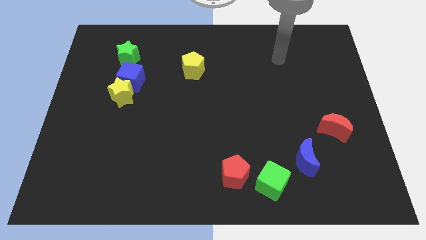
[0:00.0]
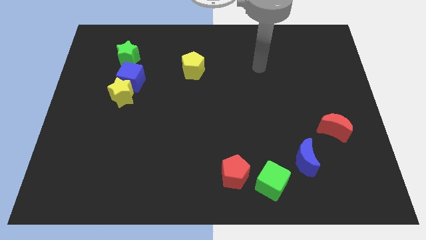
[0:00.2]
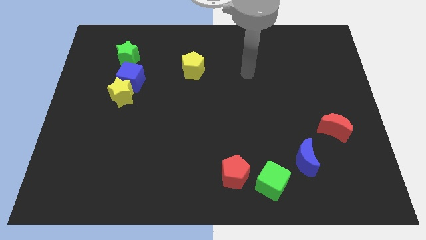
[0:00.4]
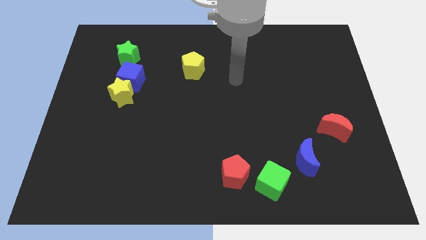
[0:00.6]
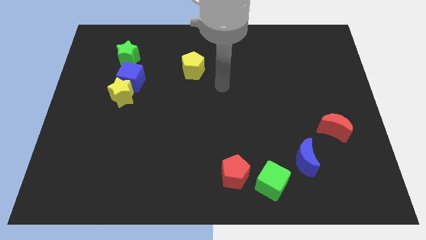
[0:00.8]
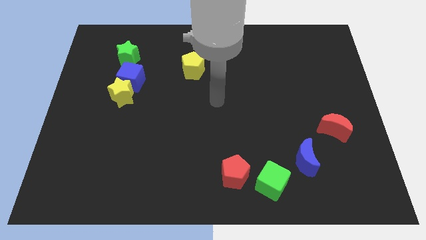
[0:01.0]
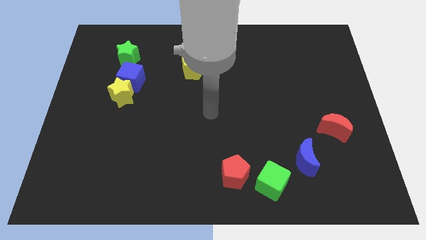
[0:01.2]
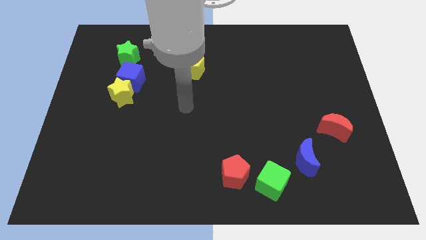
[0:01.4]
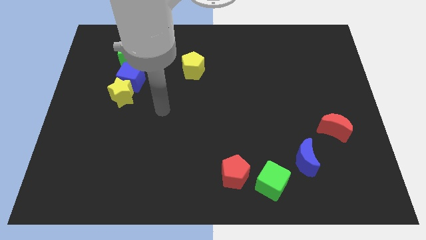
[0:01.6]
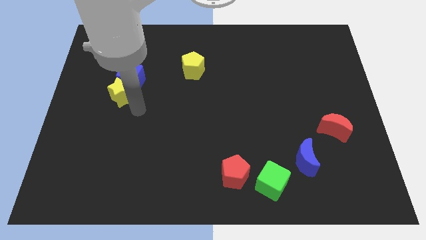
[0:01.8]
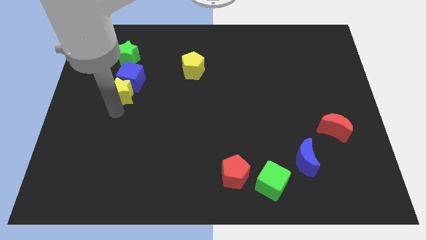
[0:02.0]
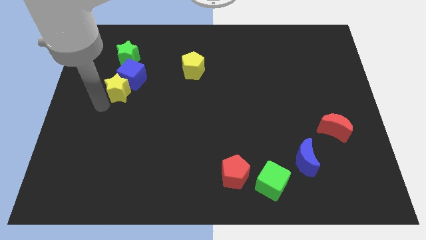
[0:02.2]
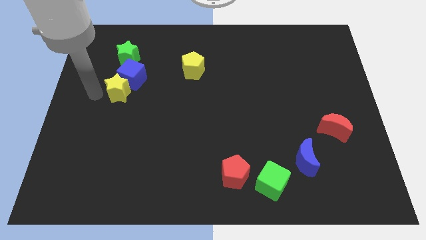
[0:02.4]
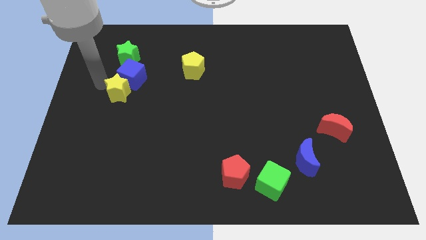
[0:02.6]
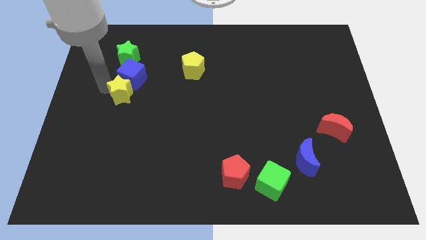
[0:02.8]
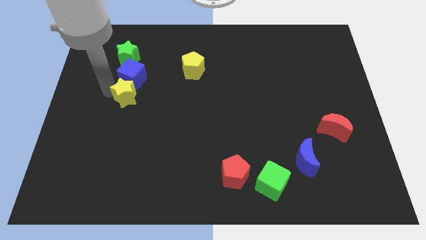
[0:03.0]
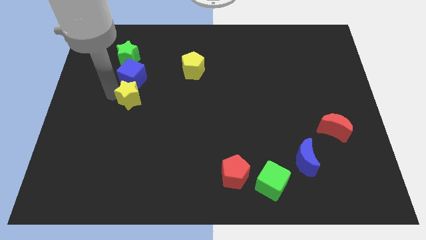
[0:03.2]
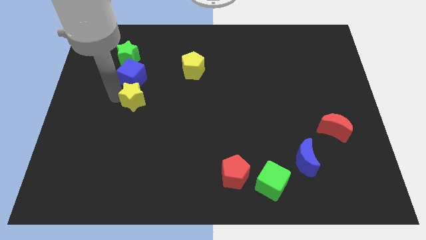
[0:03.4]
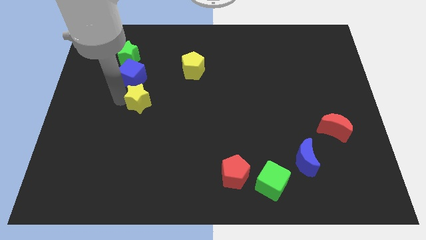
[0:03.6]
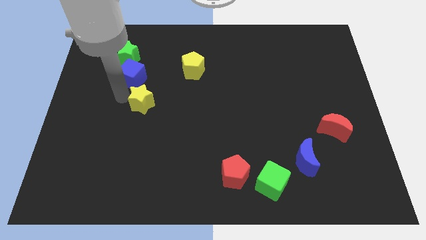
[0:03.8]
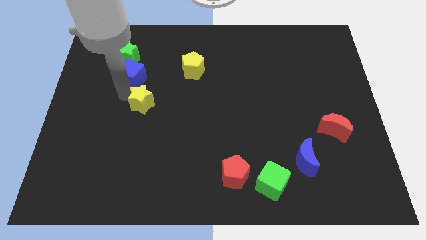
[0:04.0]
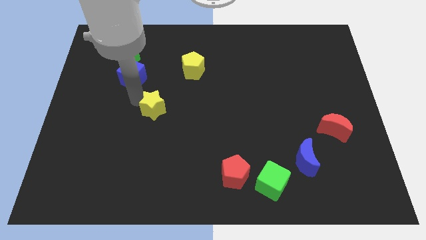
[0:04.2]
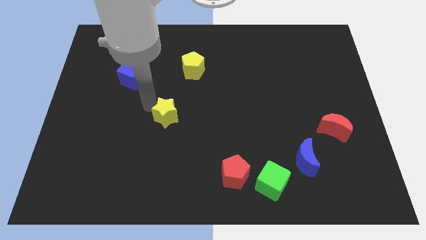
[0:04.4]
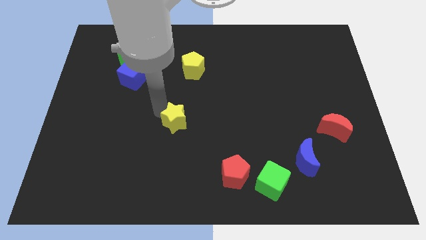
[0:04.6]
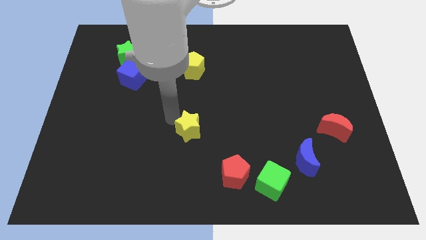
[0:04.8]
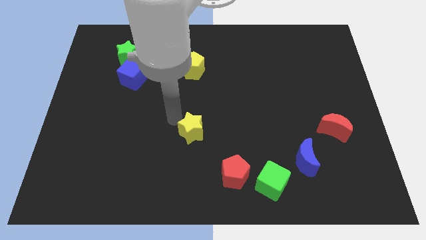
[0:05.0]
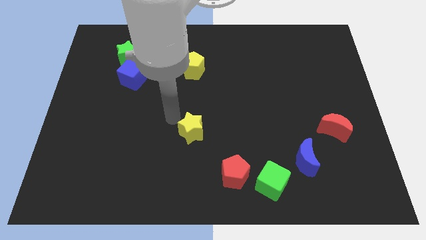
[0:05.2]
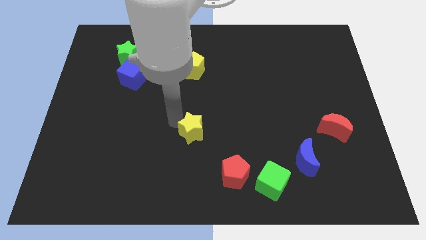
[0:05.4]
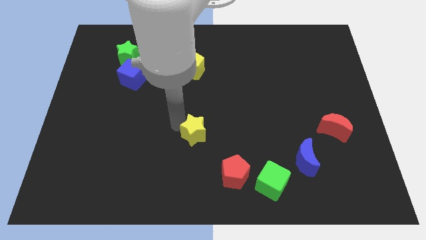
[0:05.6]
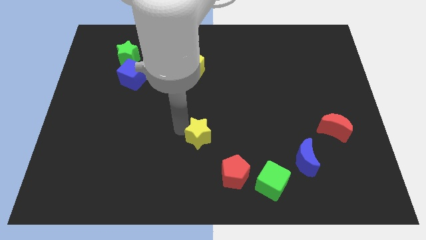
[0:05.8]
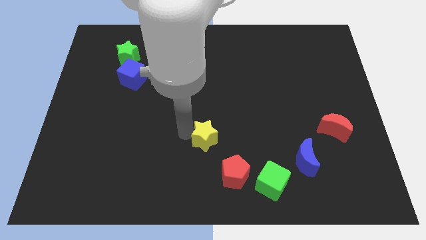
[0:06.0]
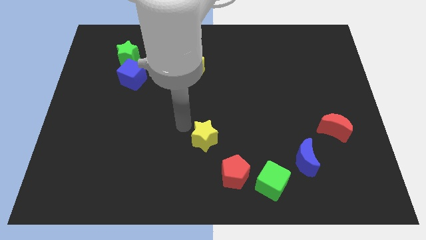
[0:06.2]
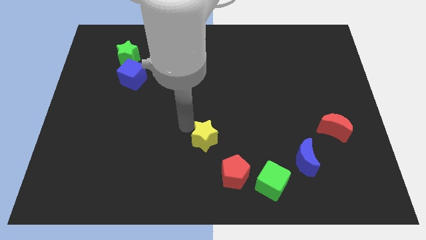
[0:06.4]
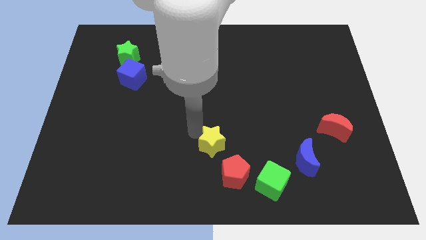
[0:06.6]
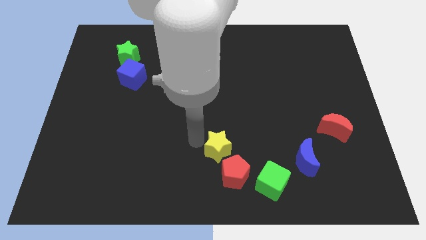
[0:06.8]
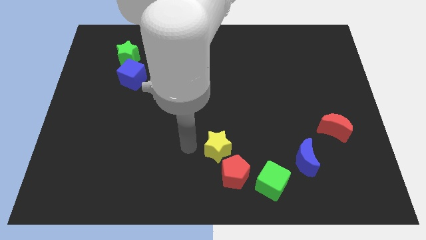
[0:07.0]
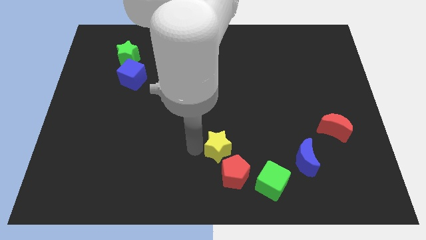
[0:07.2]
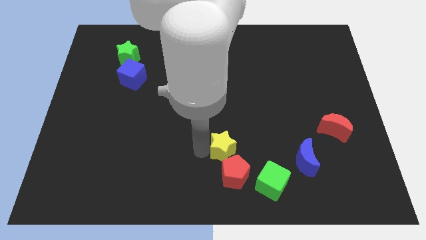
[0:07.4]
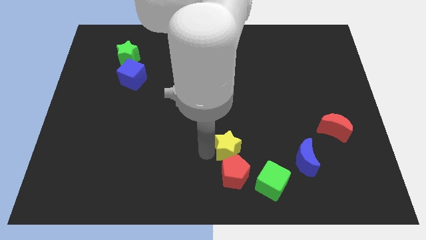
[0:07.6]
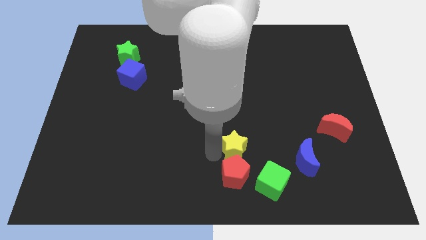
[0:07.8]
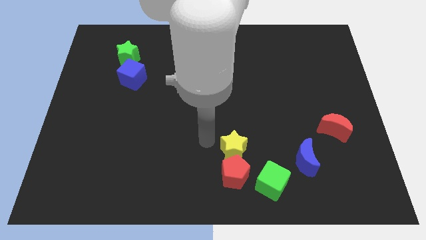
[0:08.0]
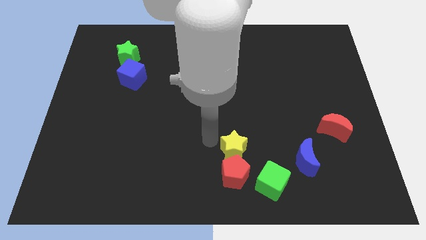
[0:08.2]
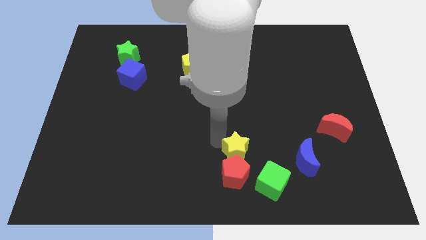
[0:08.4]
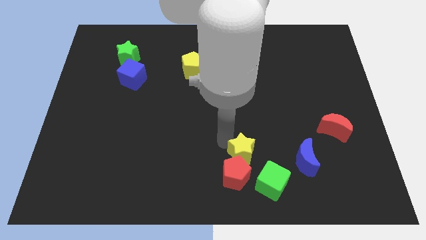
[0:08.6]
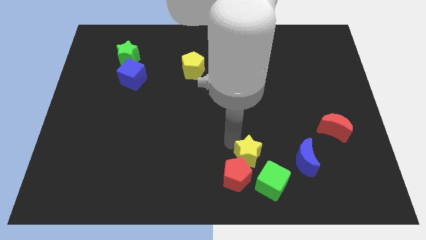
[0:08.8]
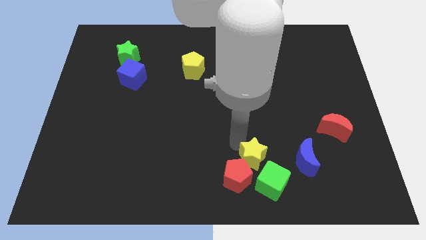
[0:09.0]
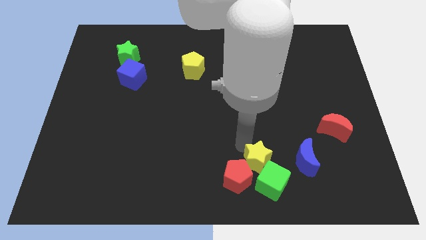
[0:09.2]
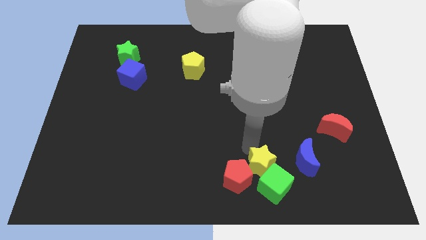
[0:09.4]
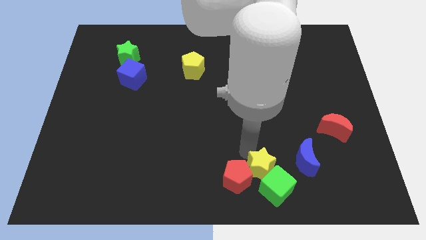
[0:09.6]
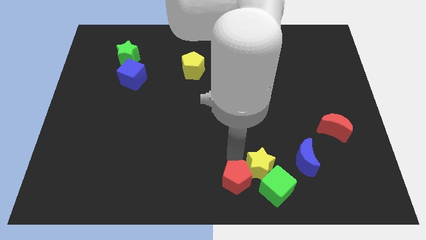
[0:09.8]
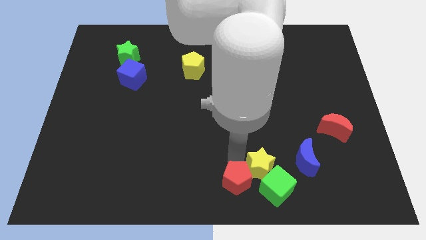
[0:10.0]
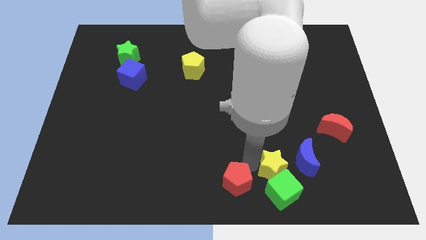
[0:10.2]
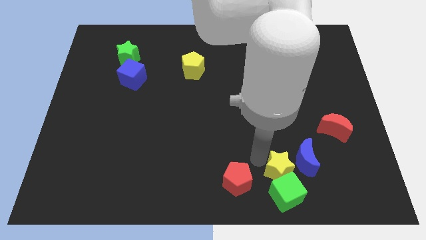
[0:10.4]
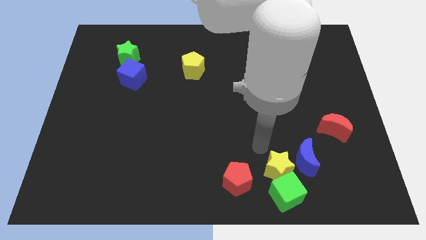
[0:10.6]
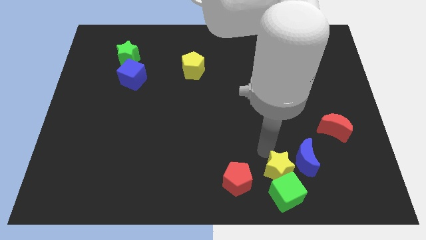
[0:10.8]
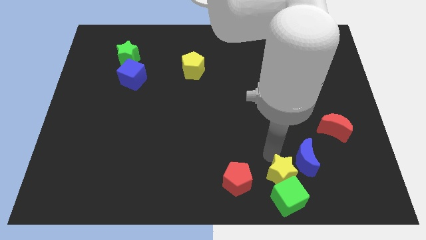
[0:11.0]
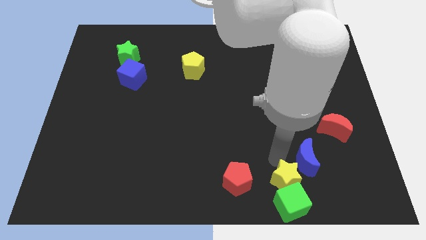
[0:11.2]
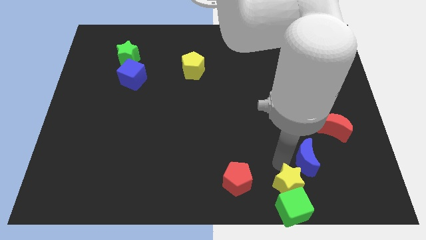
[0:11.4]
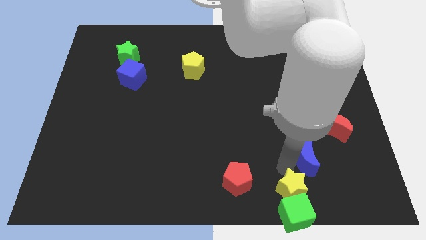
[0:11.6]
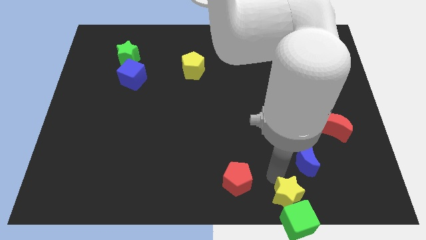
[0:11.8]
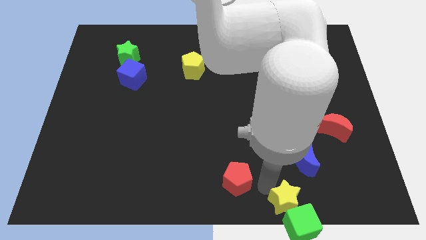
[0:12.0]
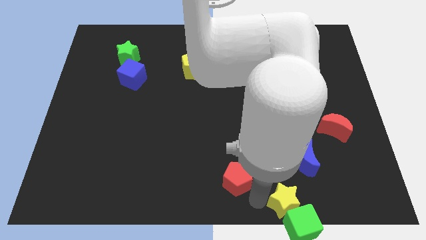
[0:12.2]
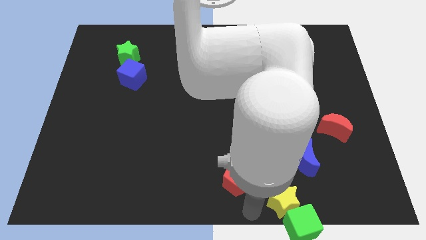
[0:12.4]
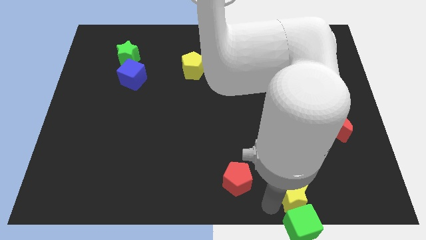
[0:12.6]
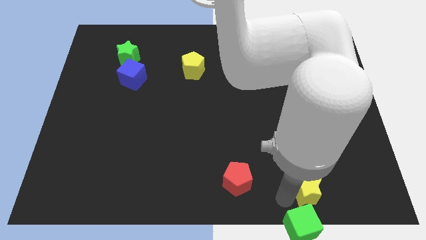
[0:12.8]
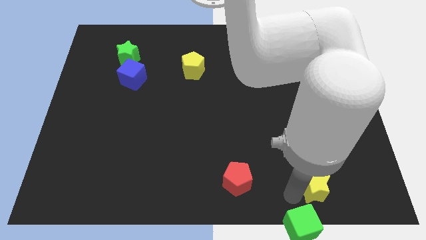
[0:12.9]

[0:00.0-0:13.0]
move the yellow star to the bottom right of the blue moon
